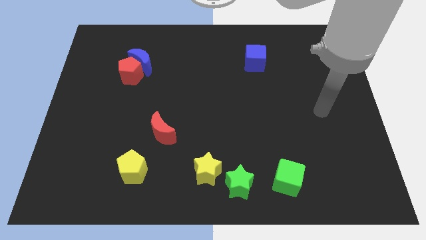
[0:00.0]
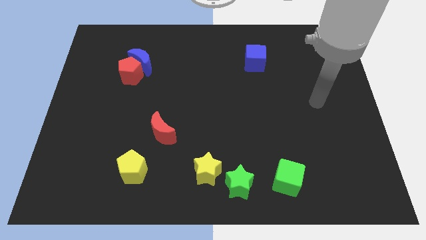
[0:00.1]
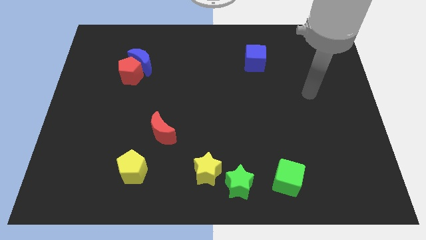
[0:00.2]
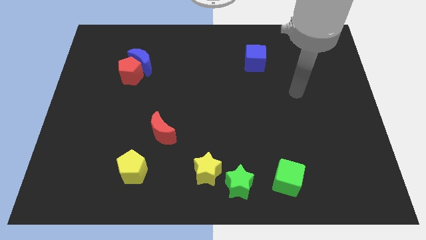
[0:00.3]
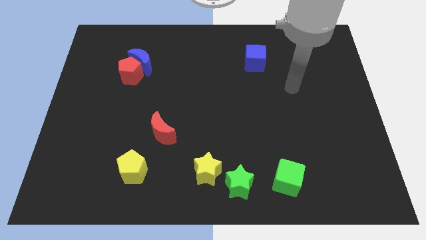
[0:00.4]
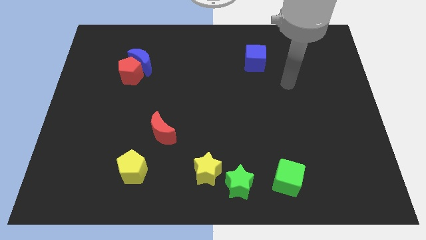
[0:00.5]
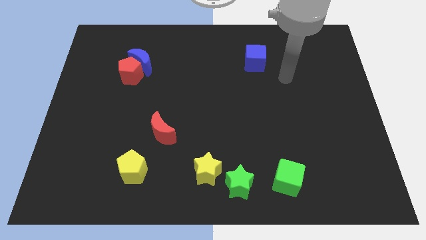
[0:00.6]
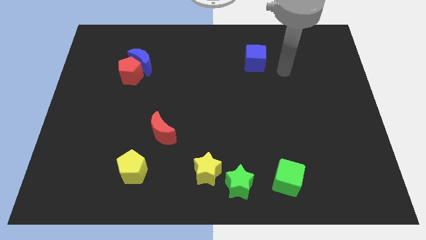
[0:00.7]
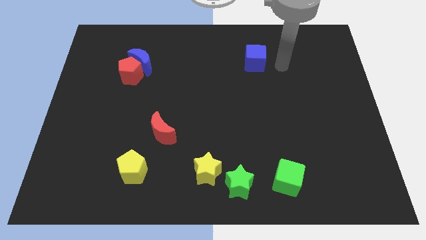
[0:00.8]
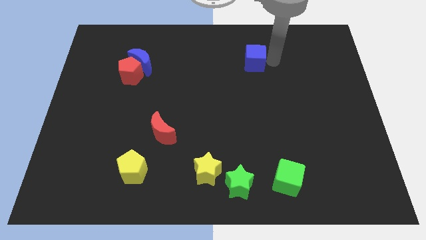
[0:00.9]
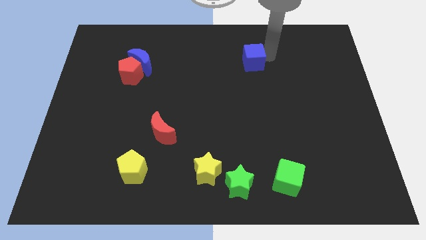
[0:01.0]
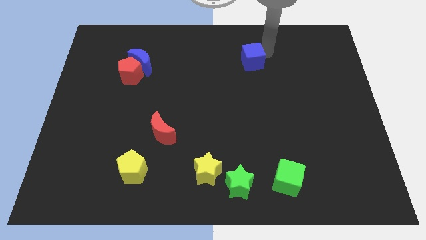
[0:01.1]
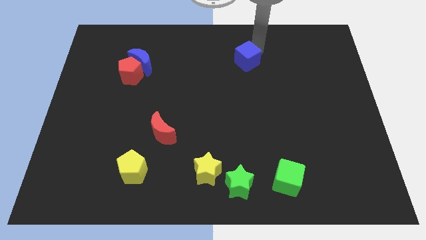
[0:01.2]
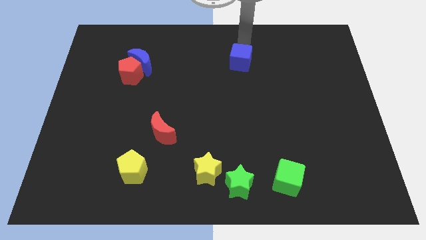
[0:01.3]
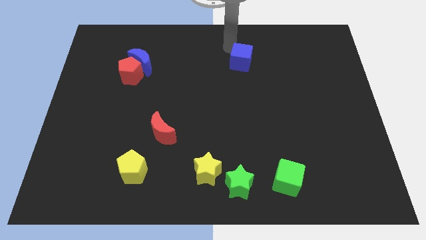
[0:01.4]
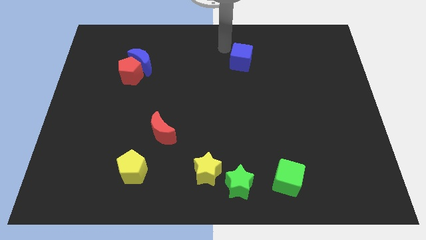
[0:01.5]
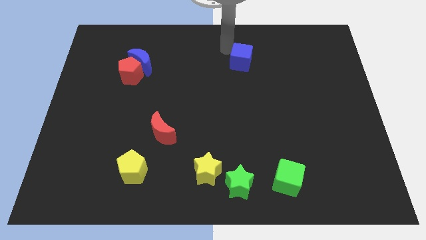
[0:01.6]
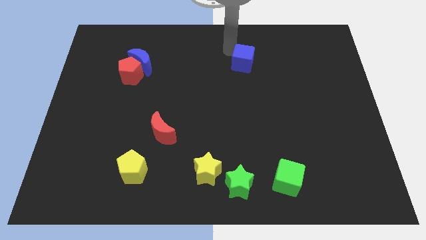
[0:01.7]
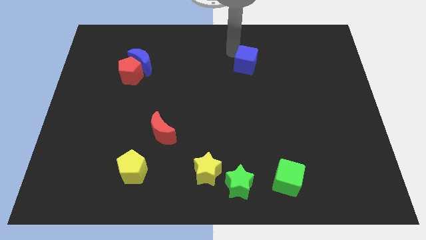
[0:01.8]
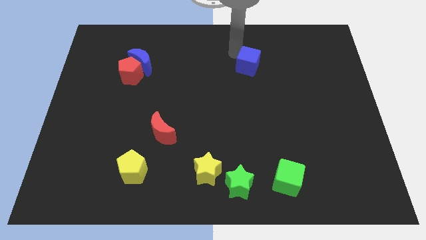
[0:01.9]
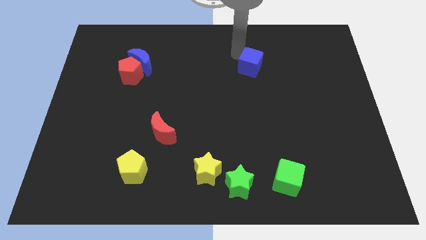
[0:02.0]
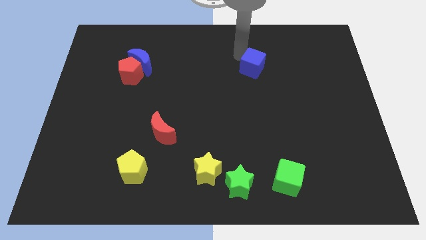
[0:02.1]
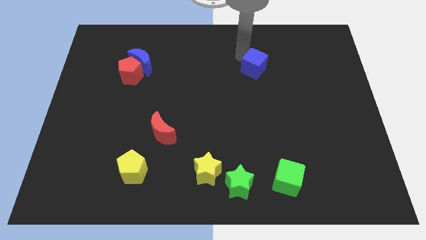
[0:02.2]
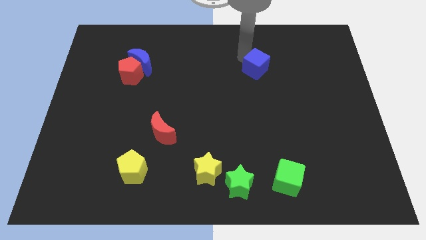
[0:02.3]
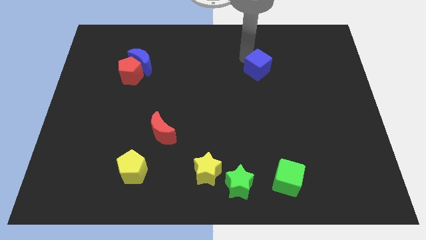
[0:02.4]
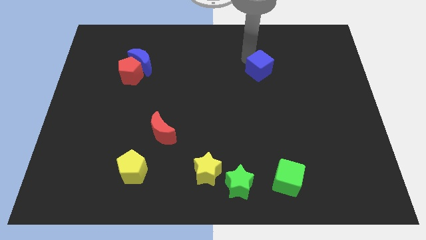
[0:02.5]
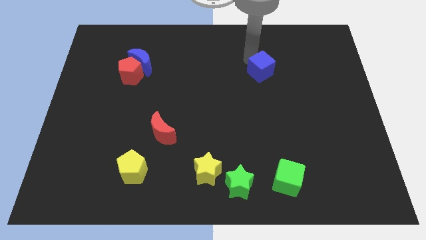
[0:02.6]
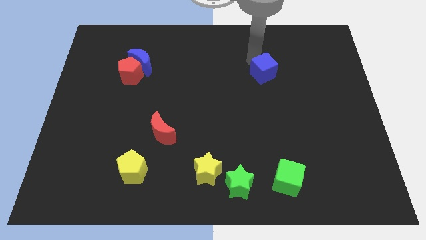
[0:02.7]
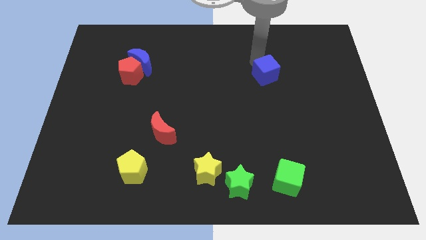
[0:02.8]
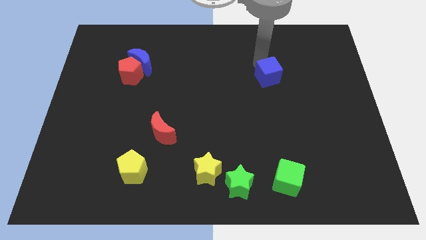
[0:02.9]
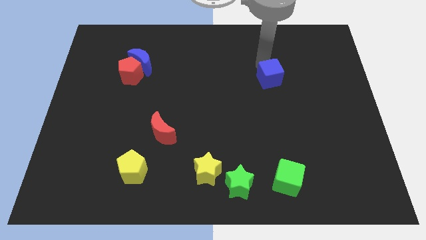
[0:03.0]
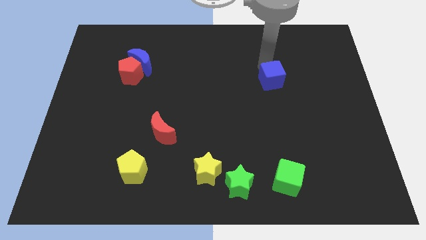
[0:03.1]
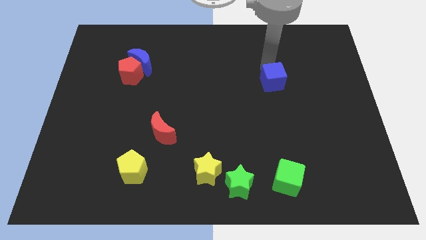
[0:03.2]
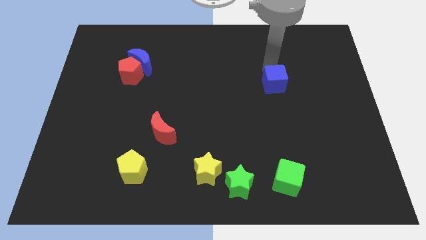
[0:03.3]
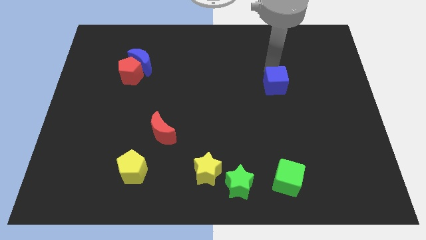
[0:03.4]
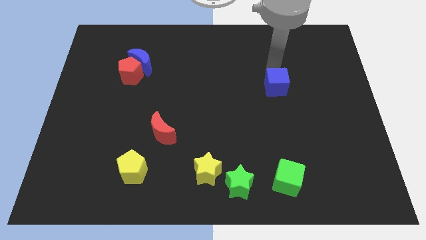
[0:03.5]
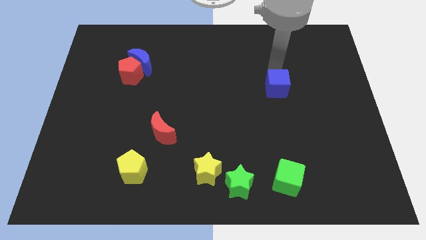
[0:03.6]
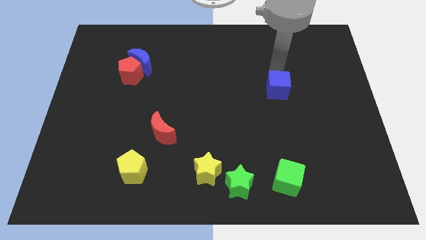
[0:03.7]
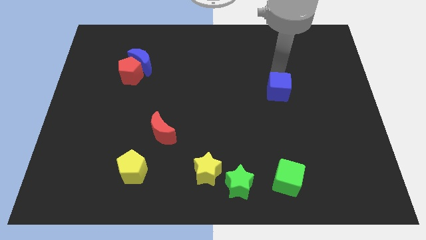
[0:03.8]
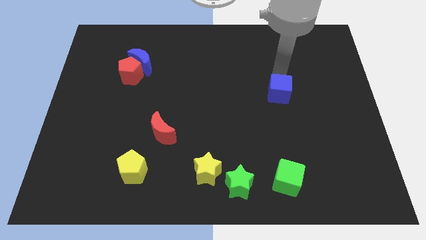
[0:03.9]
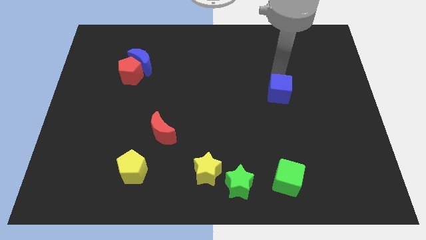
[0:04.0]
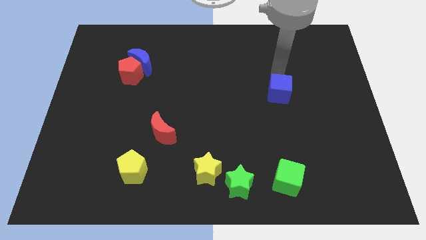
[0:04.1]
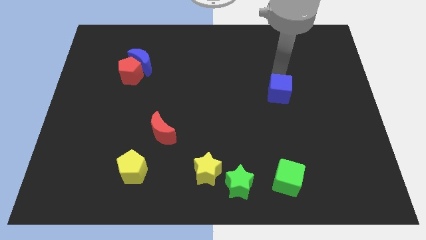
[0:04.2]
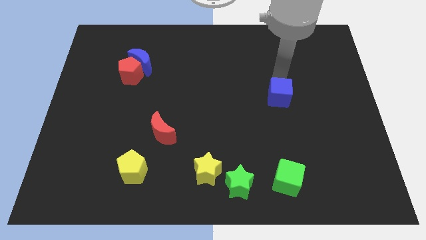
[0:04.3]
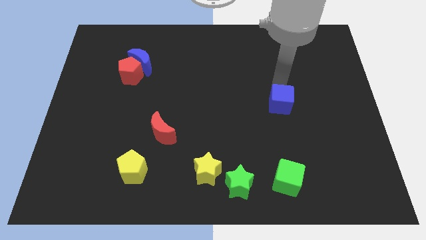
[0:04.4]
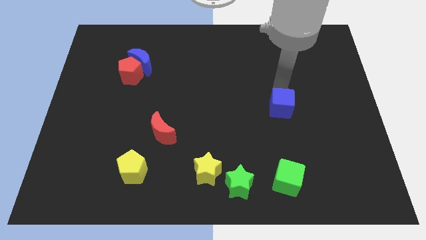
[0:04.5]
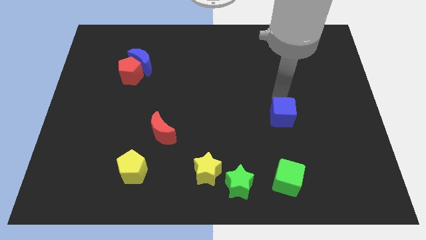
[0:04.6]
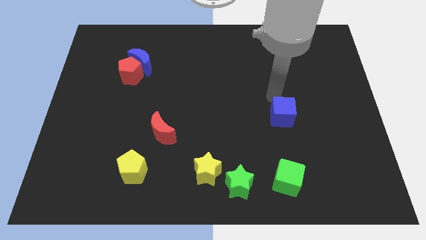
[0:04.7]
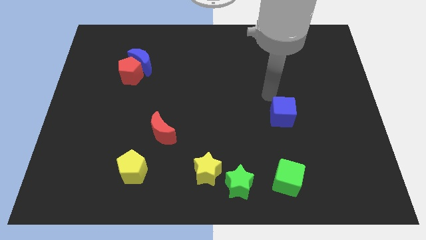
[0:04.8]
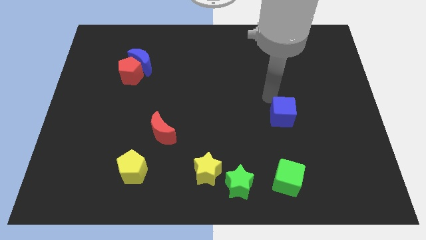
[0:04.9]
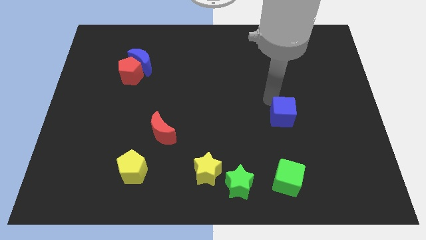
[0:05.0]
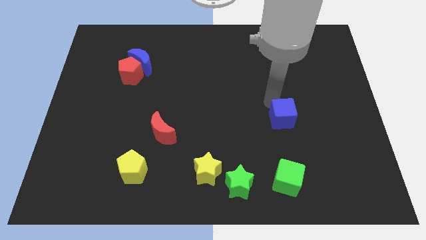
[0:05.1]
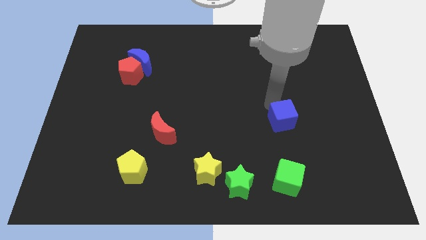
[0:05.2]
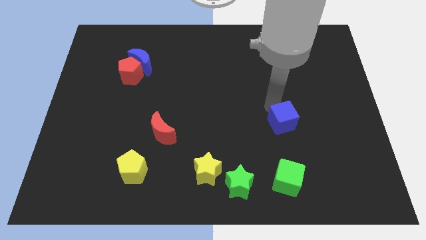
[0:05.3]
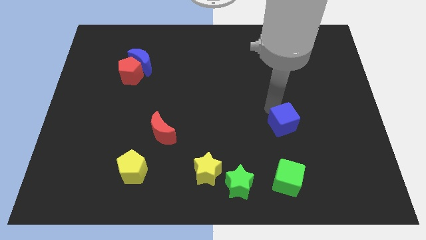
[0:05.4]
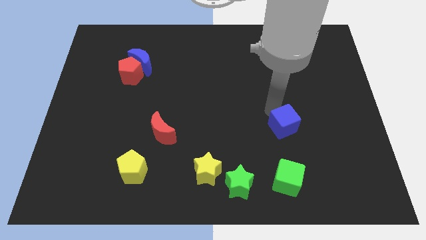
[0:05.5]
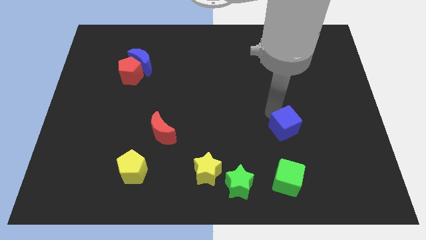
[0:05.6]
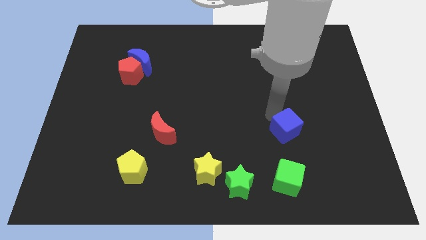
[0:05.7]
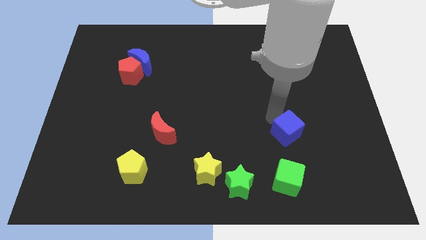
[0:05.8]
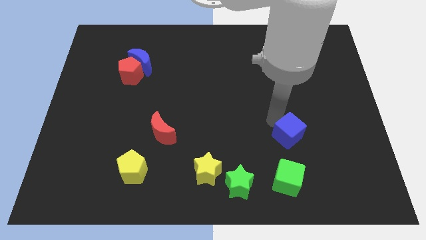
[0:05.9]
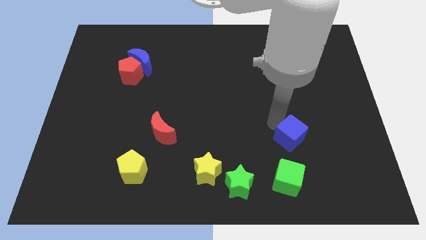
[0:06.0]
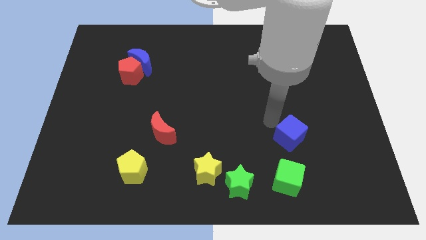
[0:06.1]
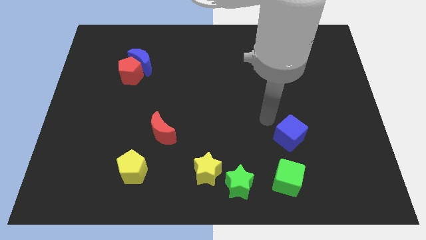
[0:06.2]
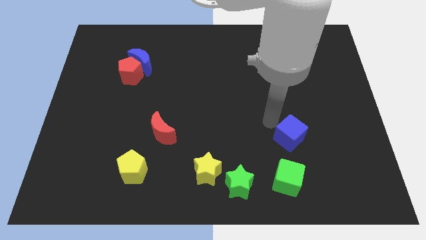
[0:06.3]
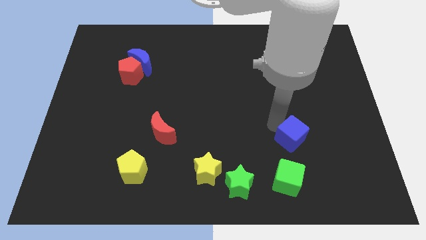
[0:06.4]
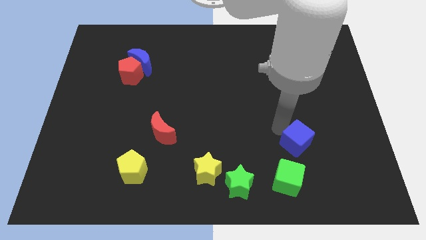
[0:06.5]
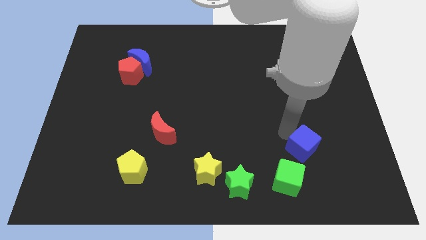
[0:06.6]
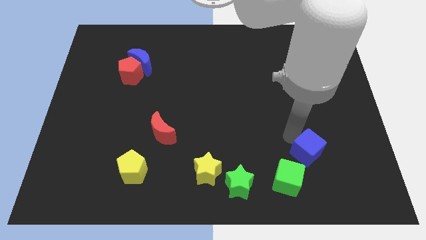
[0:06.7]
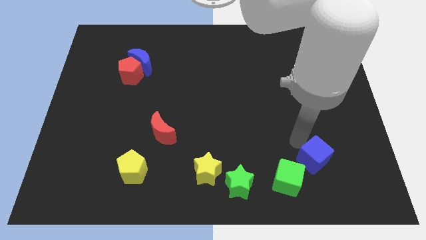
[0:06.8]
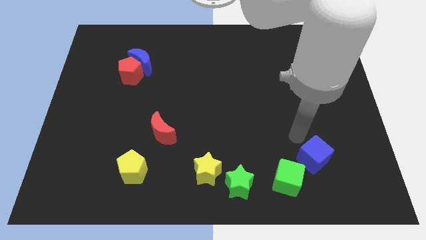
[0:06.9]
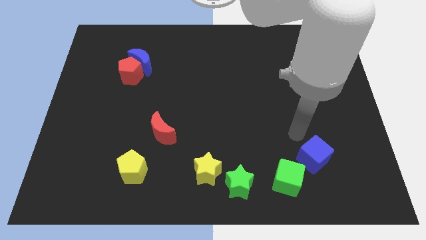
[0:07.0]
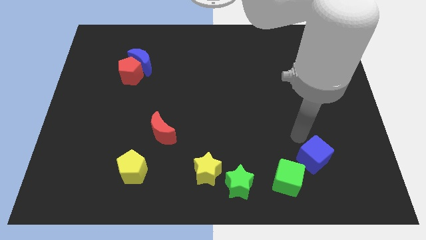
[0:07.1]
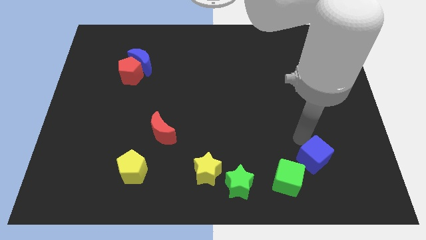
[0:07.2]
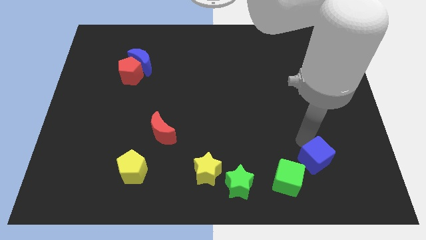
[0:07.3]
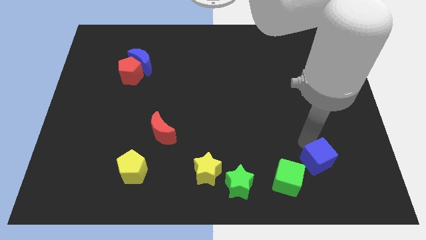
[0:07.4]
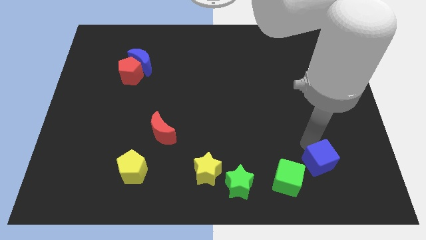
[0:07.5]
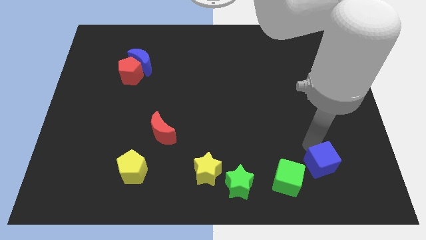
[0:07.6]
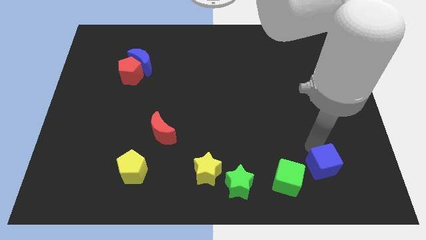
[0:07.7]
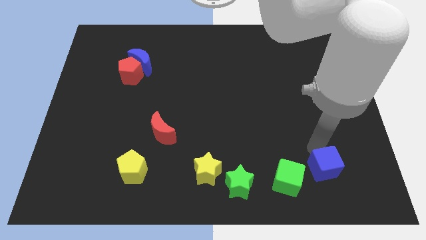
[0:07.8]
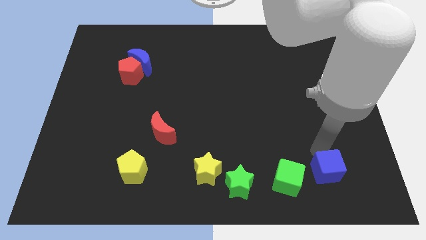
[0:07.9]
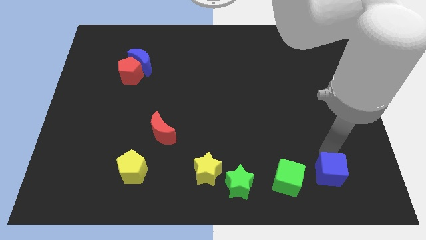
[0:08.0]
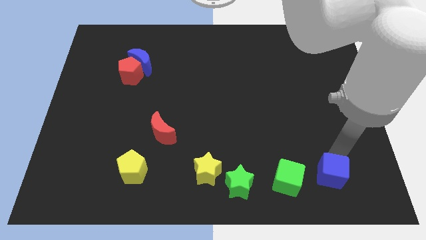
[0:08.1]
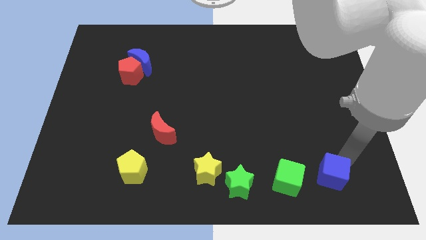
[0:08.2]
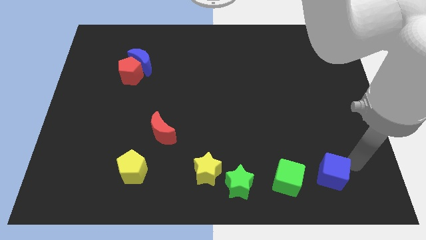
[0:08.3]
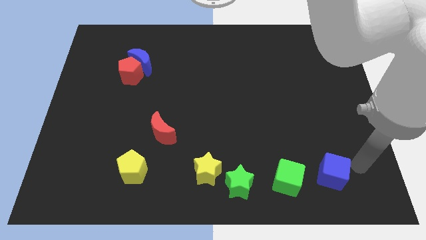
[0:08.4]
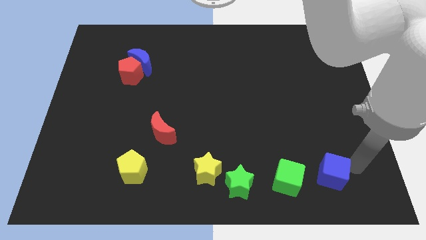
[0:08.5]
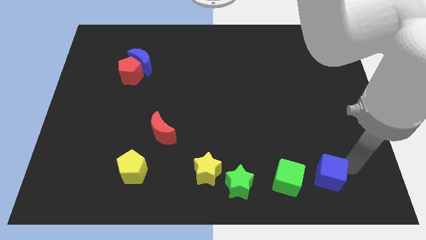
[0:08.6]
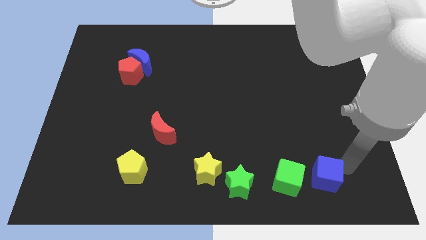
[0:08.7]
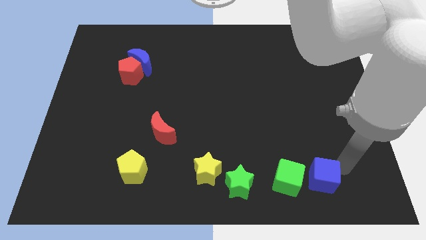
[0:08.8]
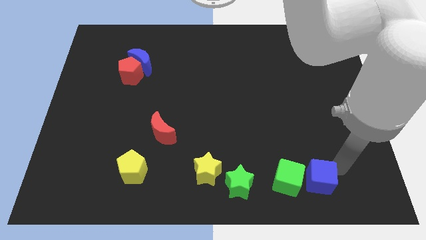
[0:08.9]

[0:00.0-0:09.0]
slide the blue cube to the right side of the green star
